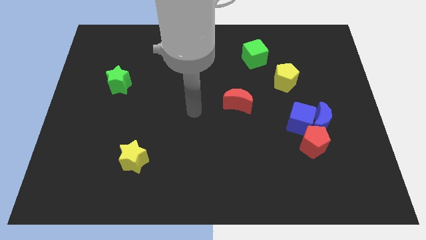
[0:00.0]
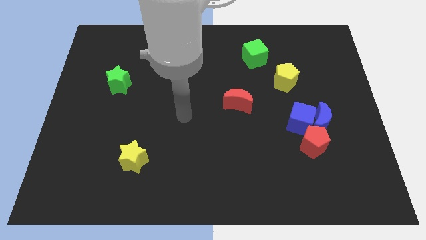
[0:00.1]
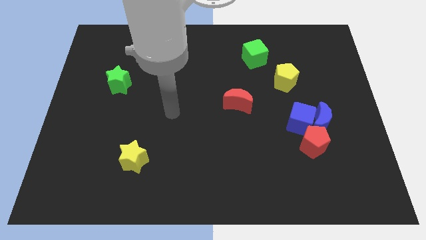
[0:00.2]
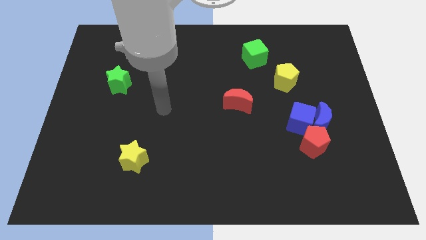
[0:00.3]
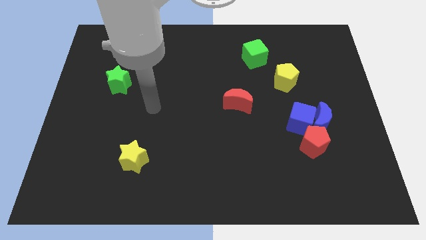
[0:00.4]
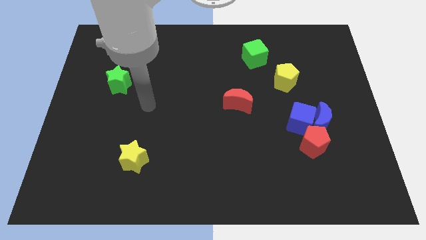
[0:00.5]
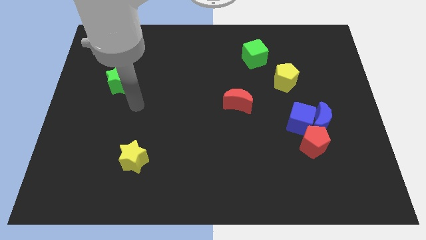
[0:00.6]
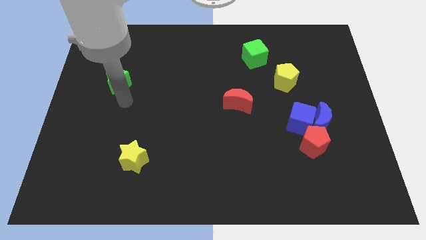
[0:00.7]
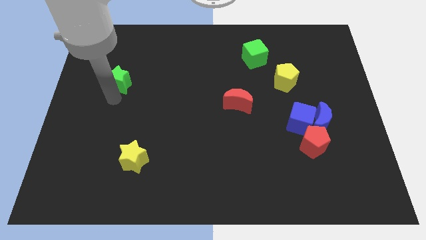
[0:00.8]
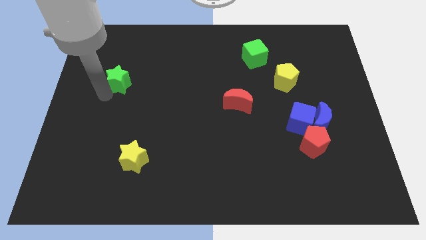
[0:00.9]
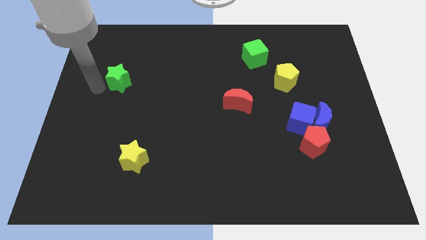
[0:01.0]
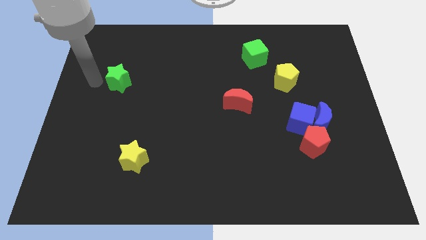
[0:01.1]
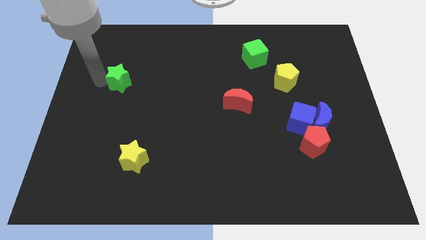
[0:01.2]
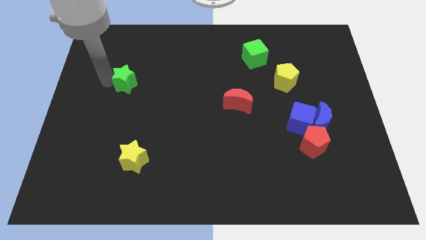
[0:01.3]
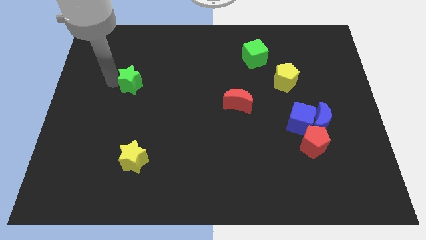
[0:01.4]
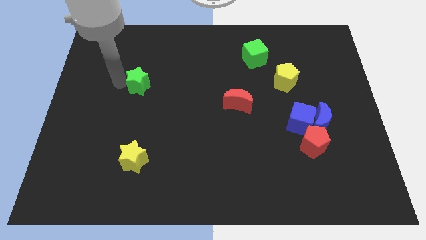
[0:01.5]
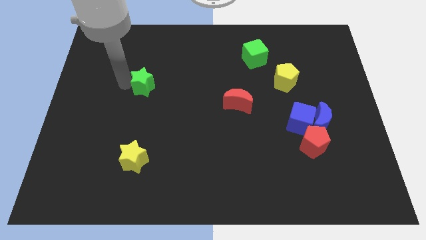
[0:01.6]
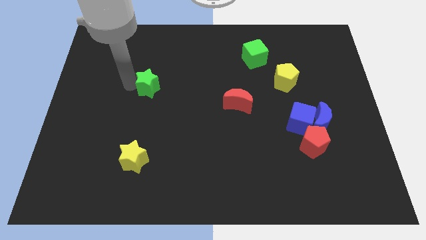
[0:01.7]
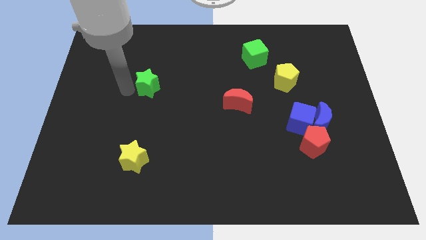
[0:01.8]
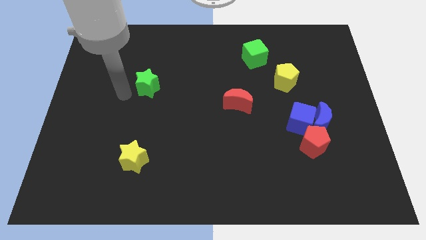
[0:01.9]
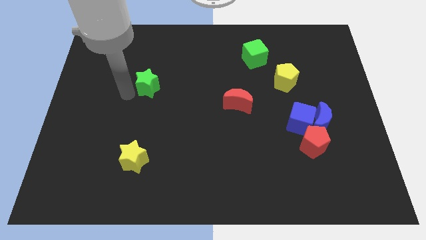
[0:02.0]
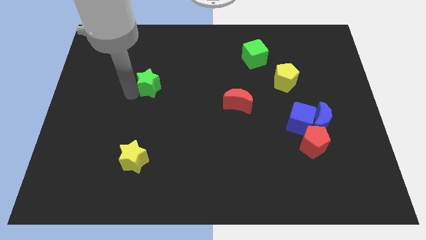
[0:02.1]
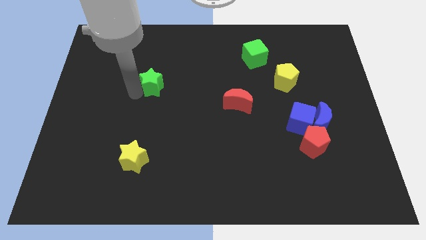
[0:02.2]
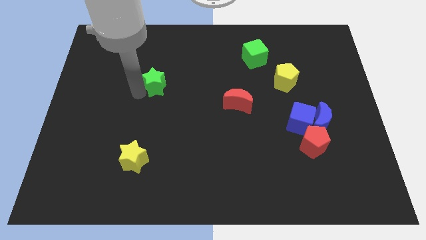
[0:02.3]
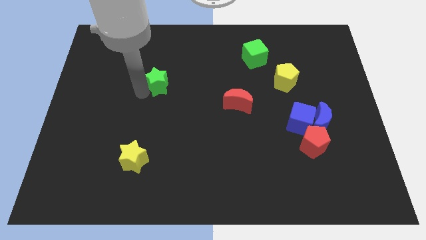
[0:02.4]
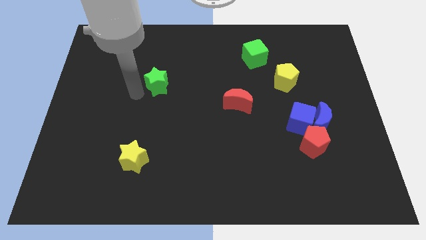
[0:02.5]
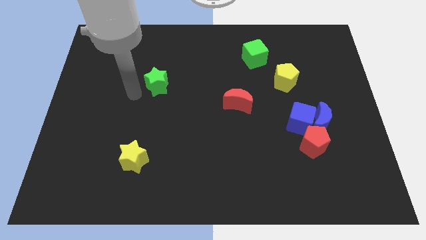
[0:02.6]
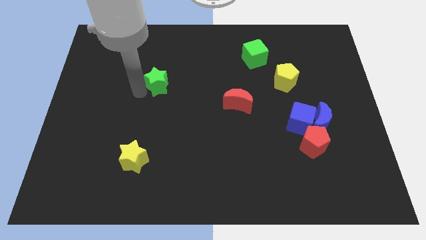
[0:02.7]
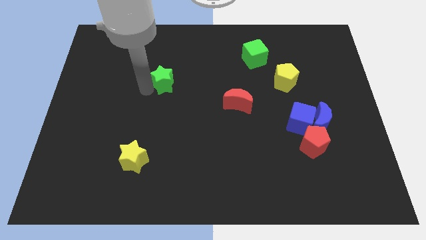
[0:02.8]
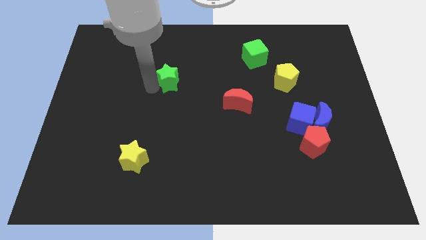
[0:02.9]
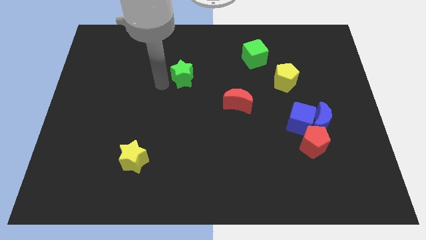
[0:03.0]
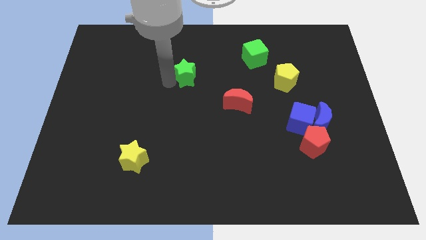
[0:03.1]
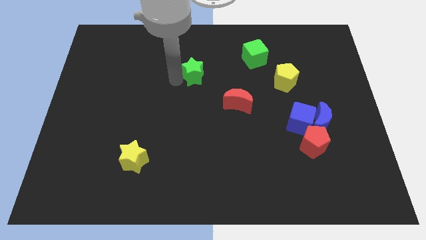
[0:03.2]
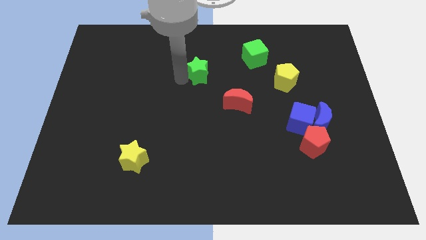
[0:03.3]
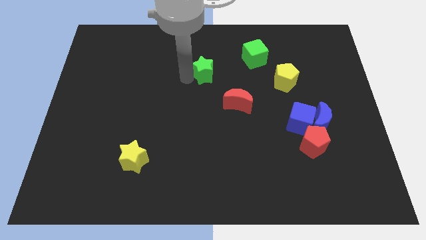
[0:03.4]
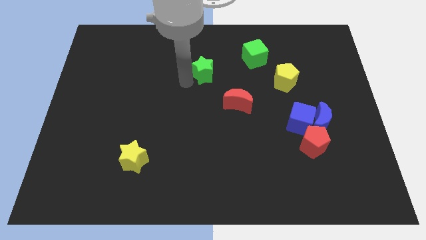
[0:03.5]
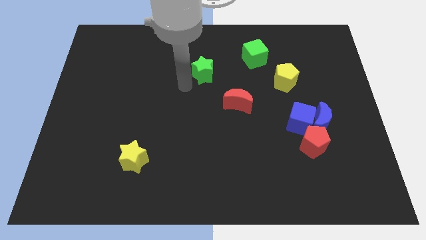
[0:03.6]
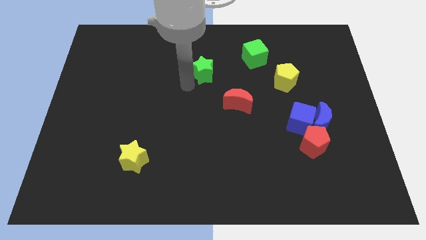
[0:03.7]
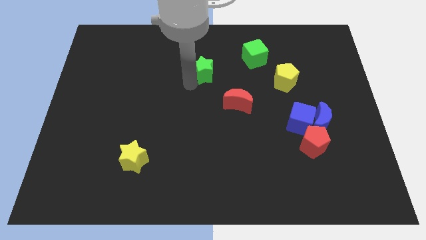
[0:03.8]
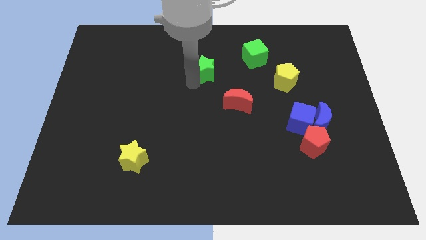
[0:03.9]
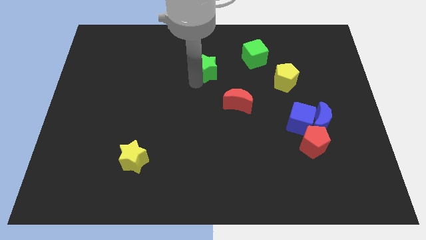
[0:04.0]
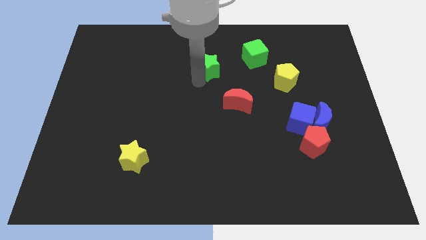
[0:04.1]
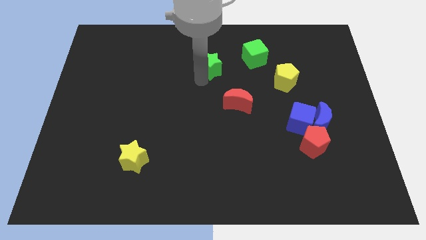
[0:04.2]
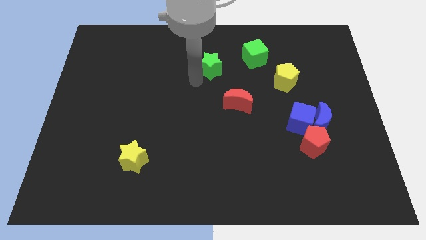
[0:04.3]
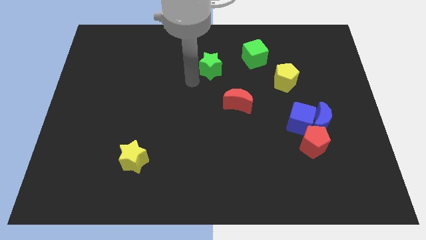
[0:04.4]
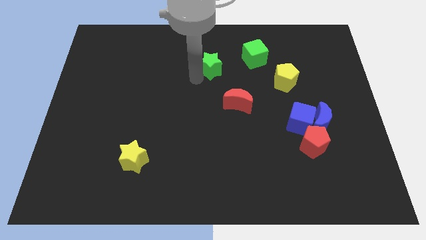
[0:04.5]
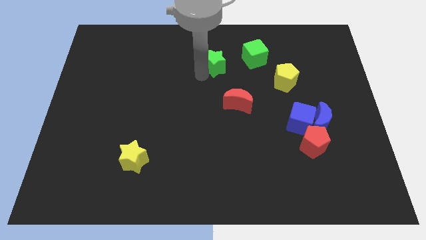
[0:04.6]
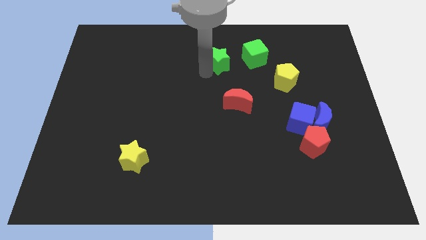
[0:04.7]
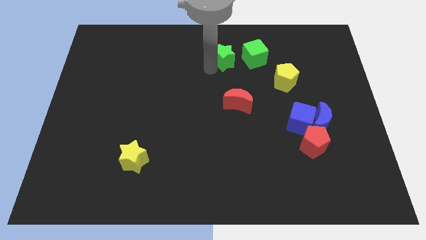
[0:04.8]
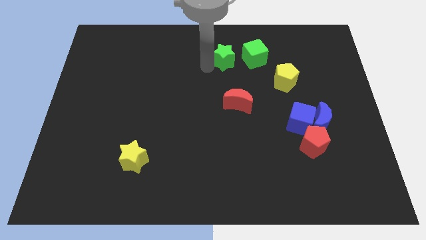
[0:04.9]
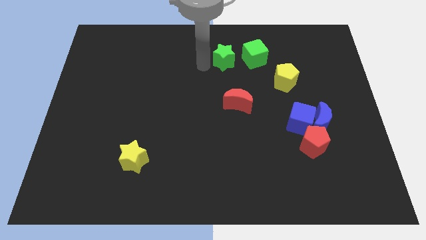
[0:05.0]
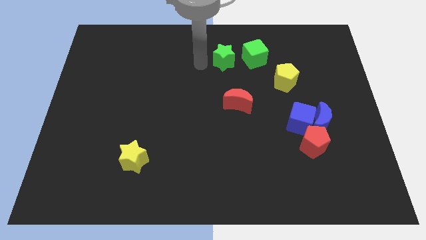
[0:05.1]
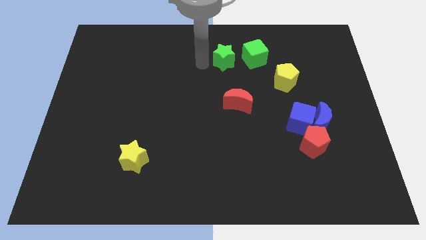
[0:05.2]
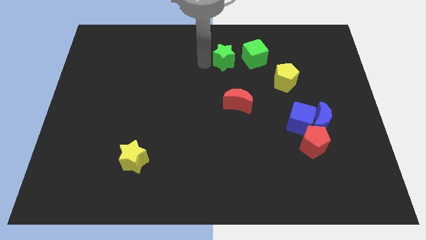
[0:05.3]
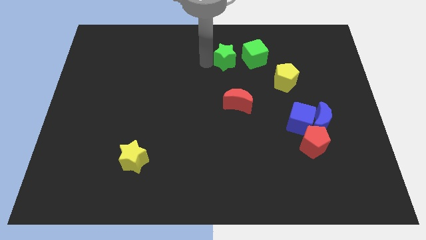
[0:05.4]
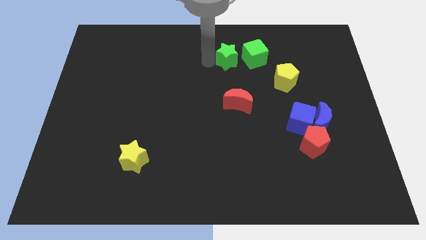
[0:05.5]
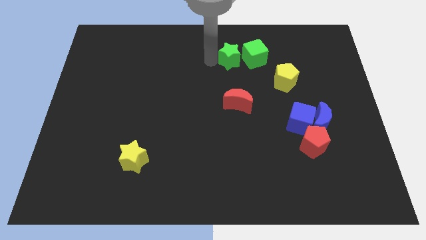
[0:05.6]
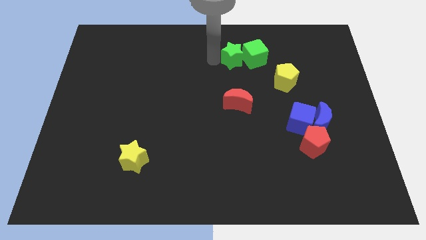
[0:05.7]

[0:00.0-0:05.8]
put the green star close to the green cube

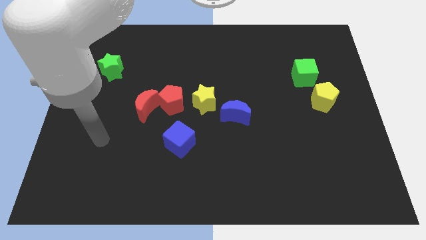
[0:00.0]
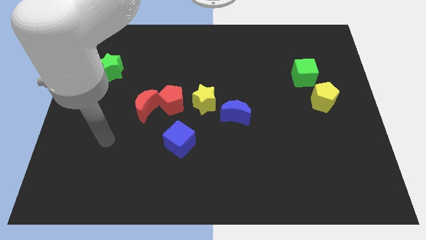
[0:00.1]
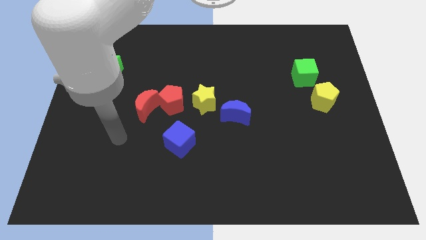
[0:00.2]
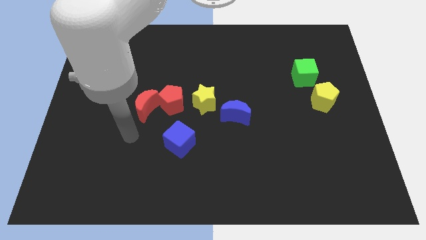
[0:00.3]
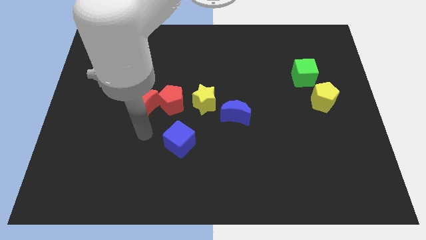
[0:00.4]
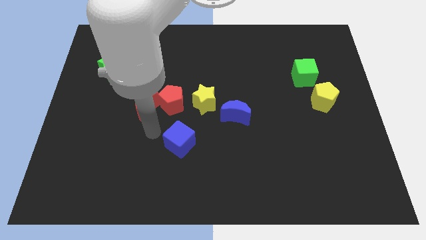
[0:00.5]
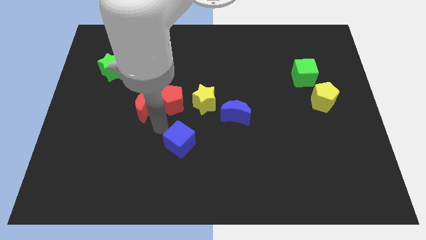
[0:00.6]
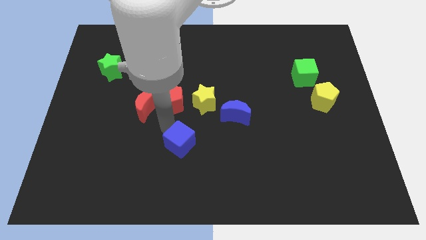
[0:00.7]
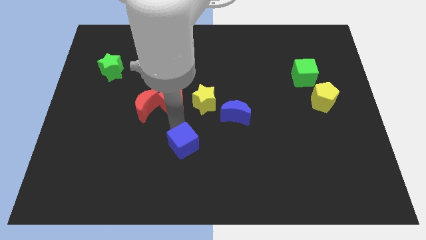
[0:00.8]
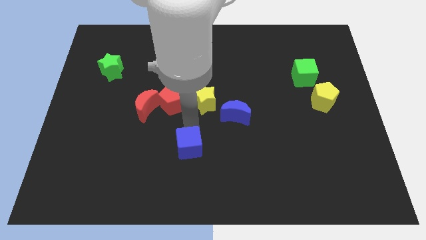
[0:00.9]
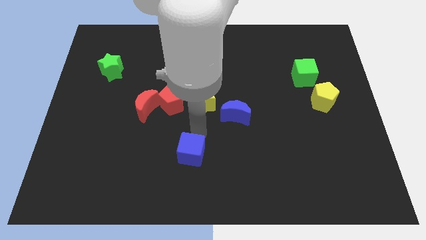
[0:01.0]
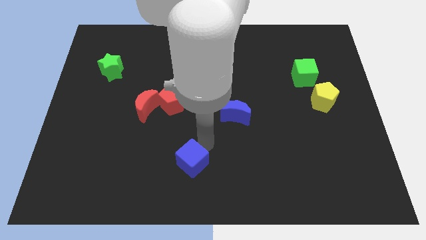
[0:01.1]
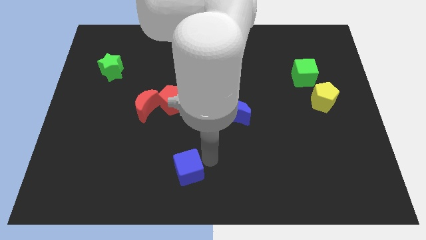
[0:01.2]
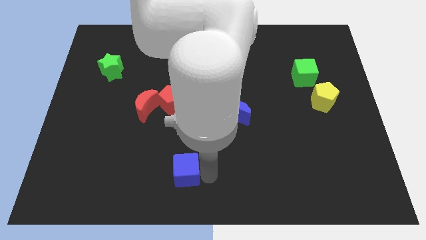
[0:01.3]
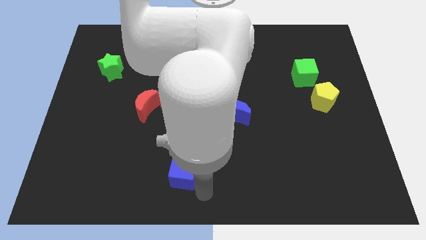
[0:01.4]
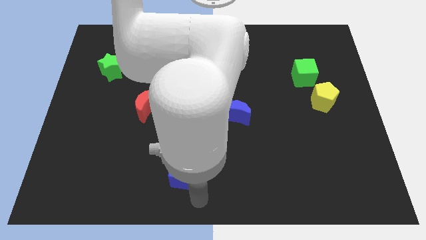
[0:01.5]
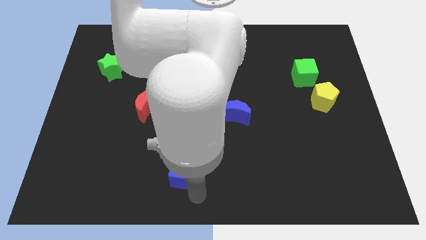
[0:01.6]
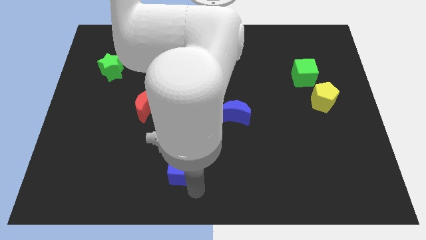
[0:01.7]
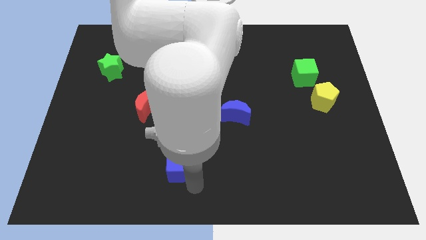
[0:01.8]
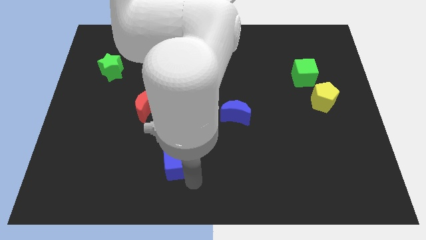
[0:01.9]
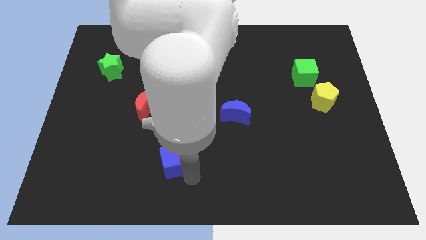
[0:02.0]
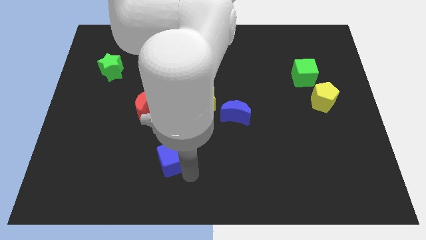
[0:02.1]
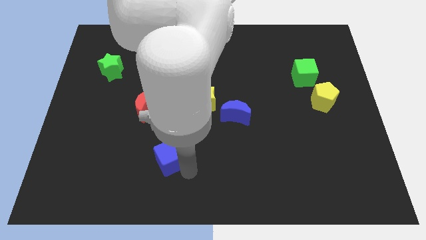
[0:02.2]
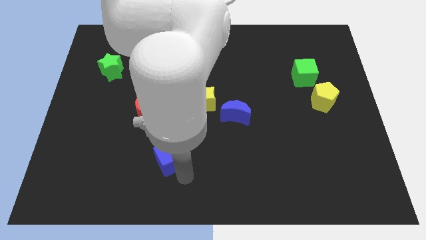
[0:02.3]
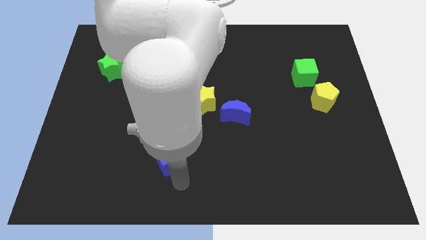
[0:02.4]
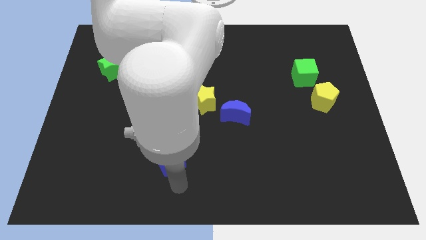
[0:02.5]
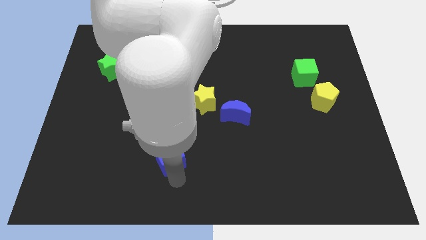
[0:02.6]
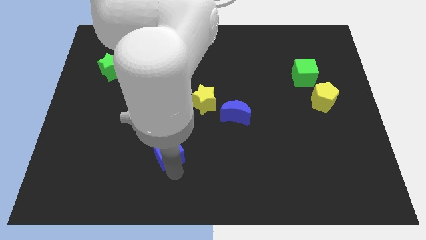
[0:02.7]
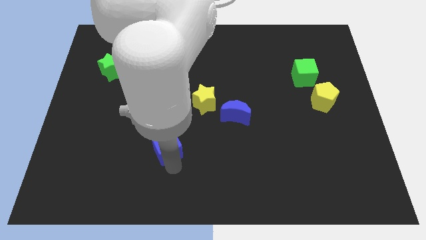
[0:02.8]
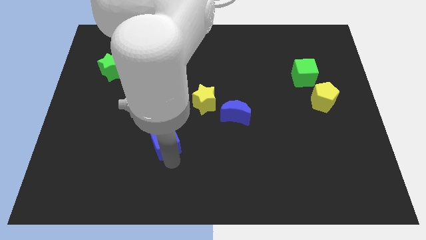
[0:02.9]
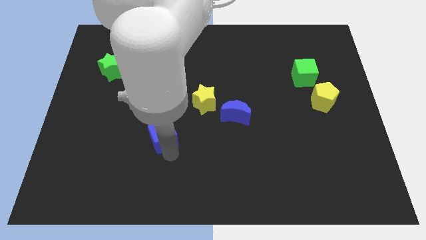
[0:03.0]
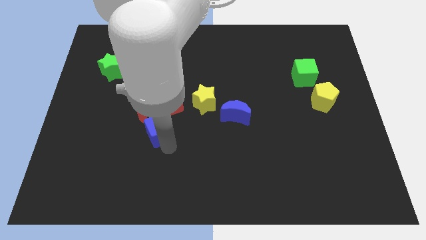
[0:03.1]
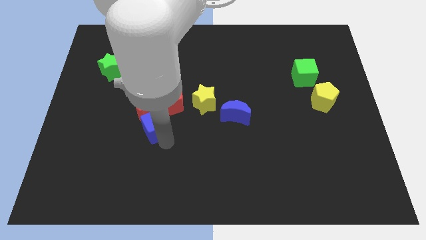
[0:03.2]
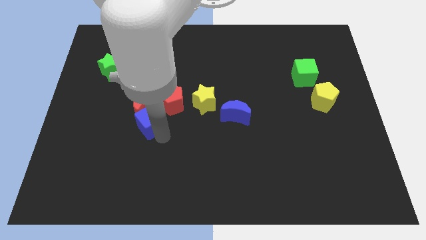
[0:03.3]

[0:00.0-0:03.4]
move the blue cube close to the red moon
